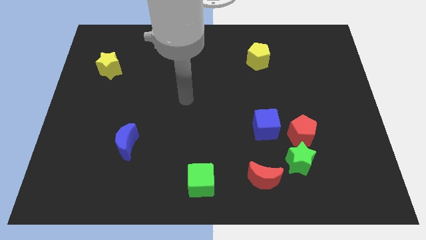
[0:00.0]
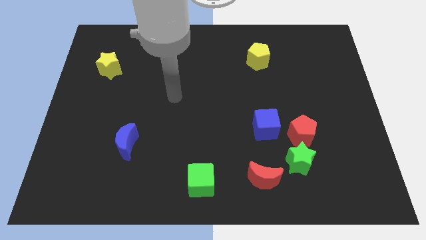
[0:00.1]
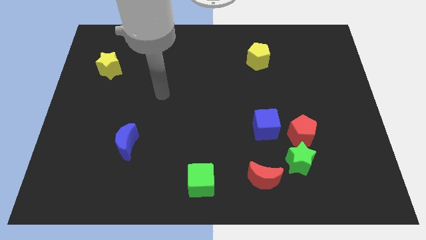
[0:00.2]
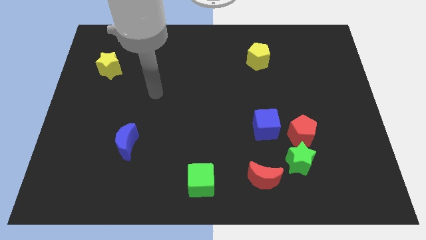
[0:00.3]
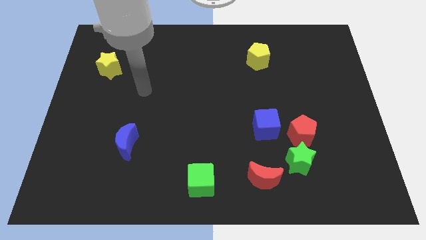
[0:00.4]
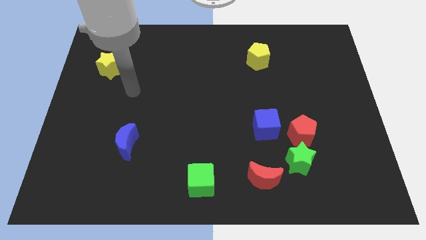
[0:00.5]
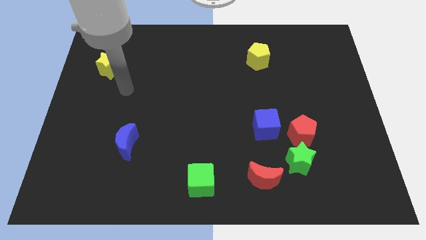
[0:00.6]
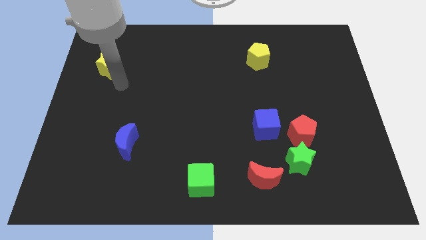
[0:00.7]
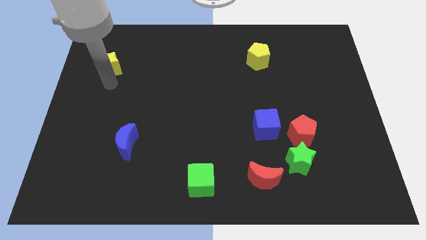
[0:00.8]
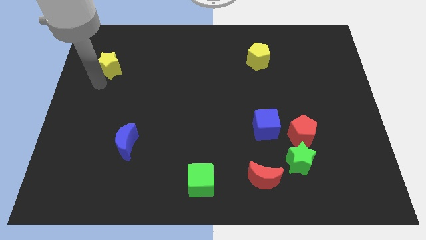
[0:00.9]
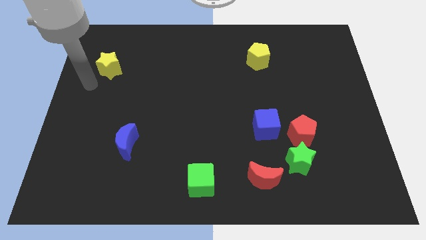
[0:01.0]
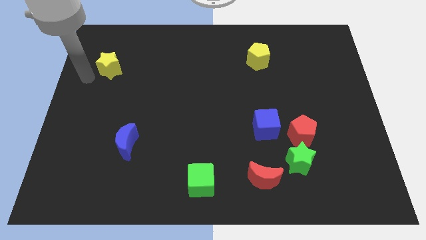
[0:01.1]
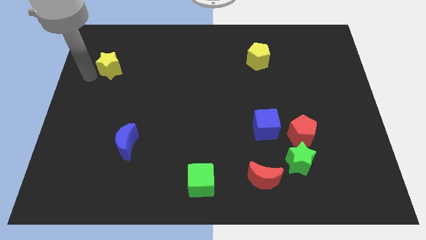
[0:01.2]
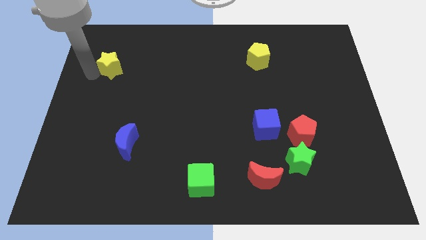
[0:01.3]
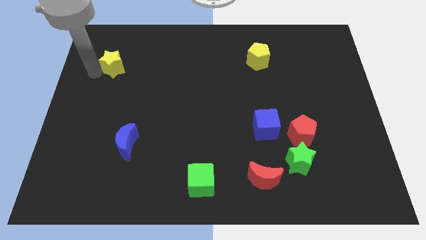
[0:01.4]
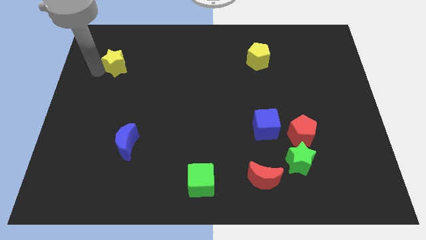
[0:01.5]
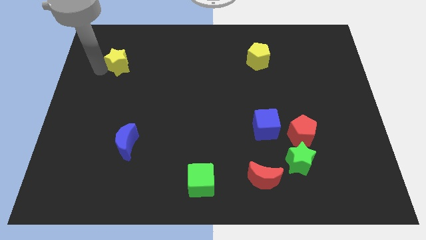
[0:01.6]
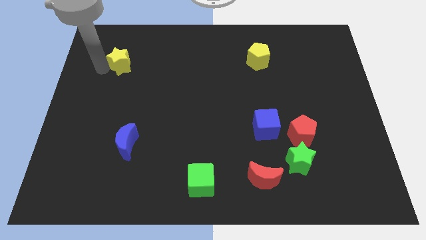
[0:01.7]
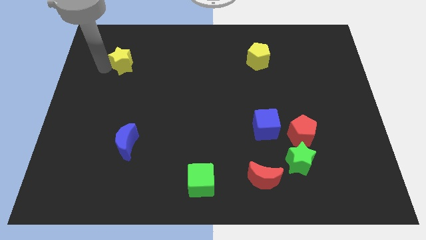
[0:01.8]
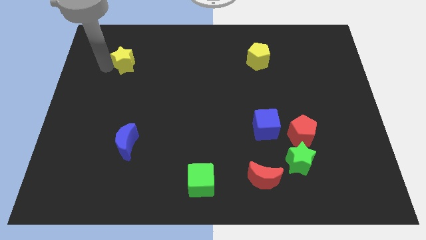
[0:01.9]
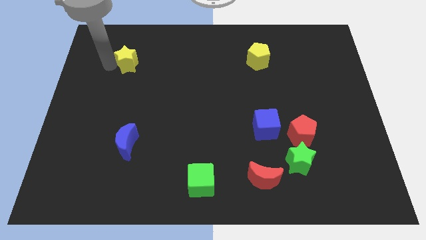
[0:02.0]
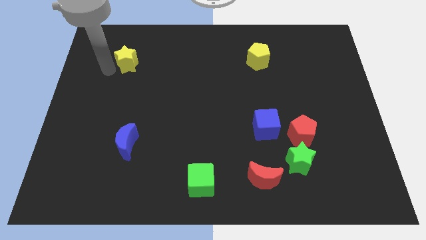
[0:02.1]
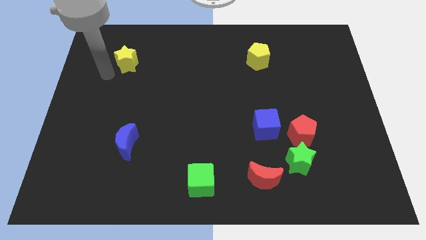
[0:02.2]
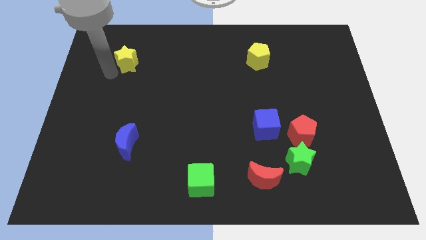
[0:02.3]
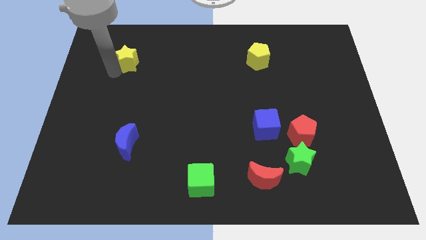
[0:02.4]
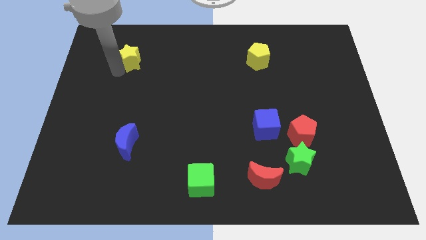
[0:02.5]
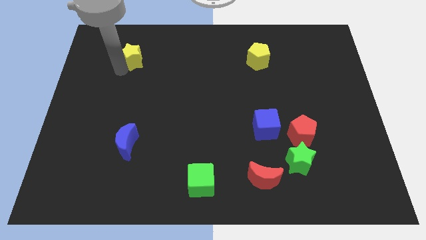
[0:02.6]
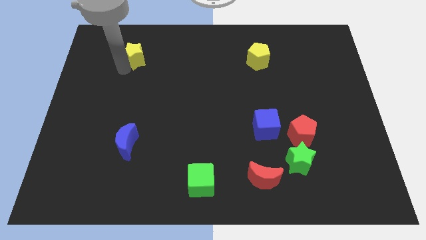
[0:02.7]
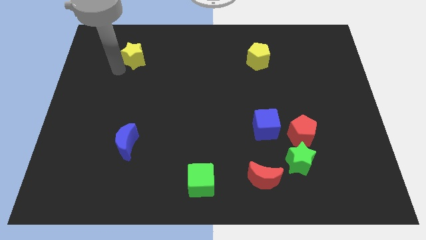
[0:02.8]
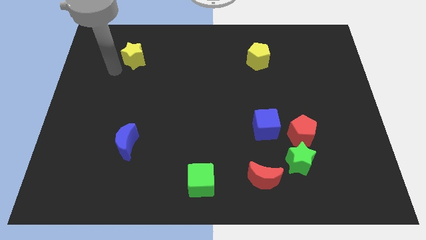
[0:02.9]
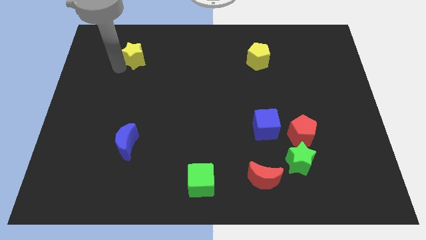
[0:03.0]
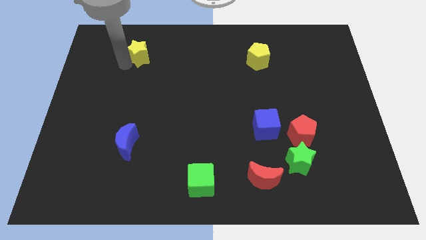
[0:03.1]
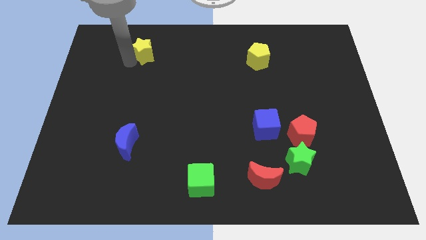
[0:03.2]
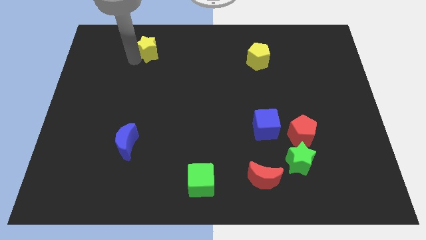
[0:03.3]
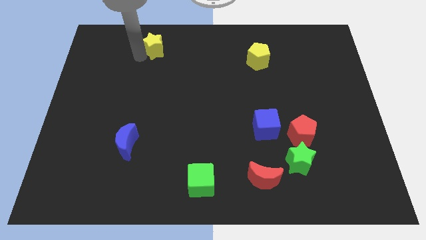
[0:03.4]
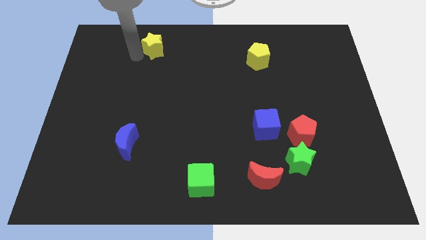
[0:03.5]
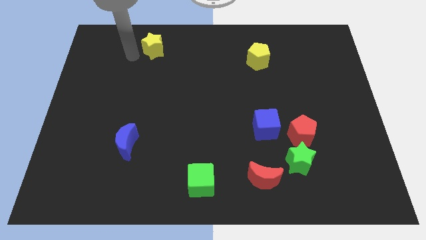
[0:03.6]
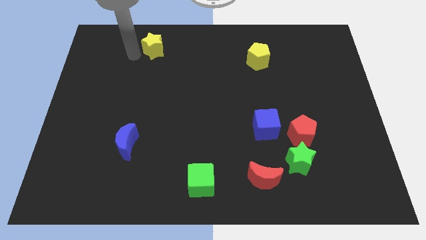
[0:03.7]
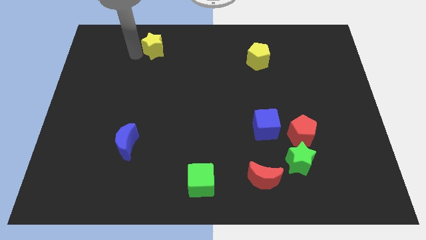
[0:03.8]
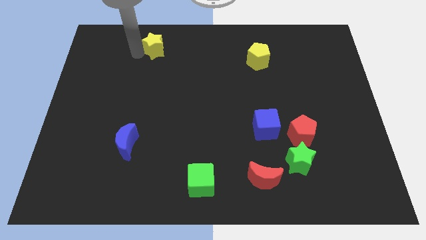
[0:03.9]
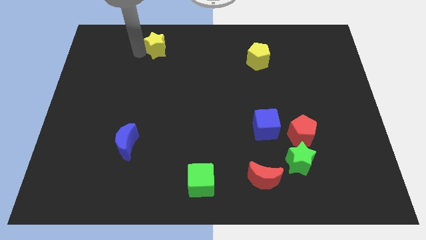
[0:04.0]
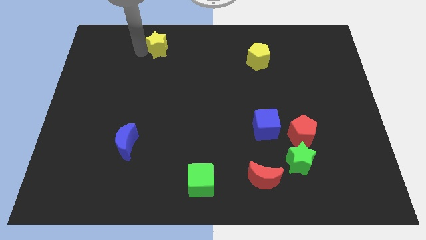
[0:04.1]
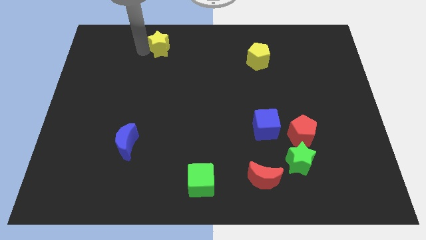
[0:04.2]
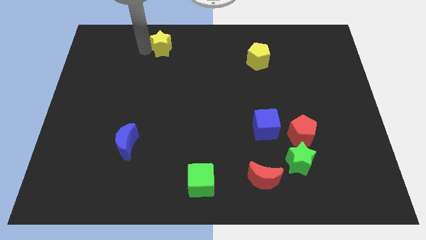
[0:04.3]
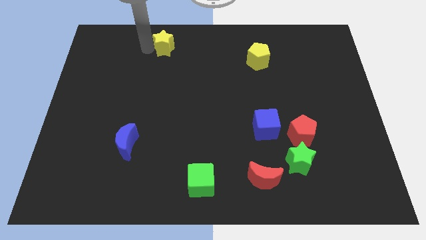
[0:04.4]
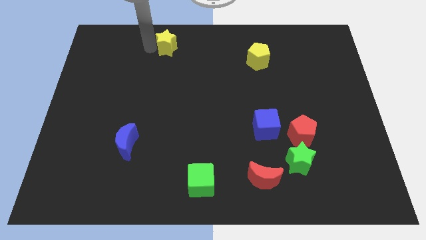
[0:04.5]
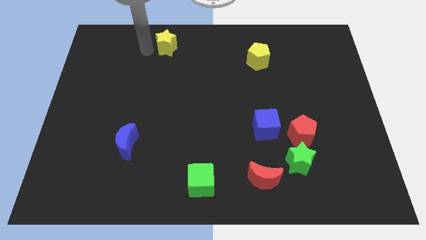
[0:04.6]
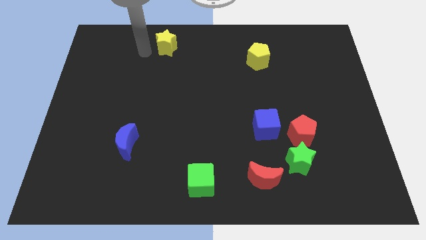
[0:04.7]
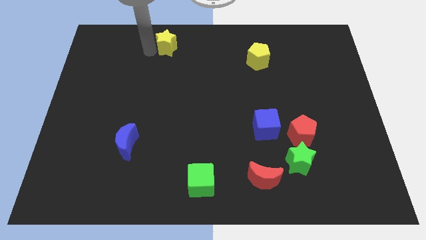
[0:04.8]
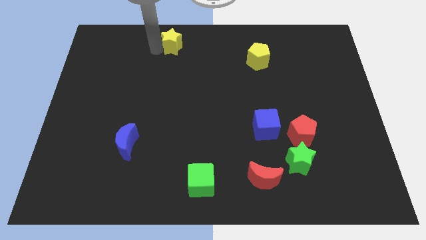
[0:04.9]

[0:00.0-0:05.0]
put the yellow star to the top side

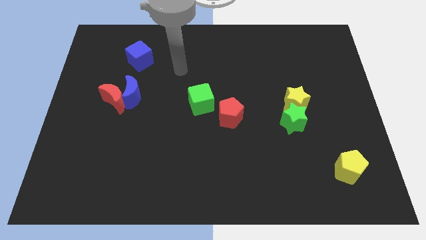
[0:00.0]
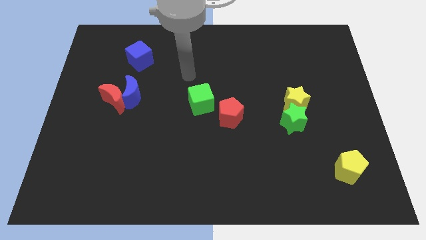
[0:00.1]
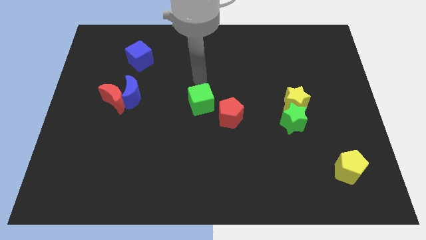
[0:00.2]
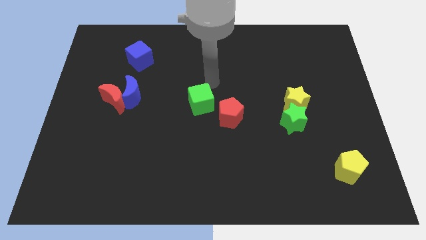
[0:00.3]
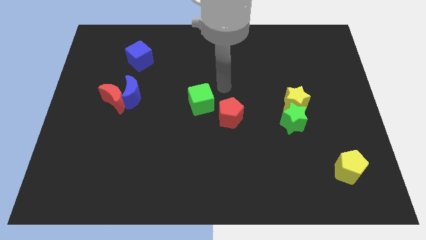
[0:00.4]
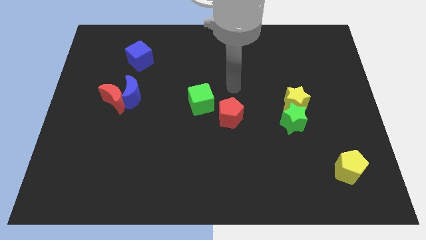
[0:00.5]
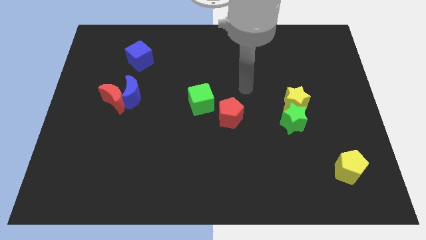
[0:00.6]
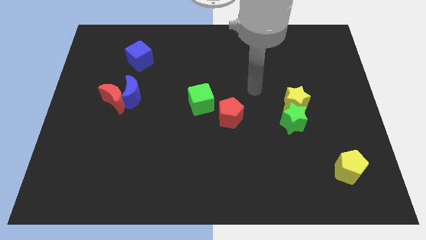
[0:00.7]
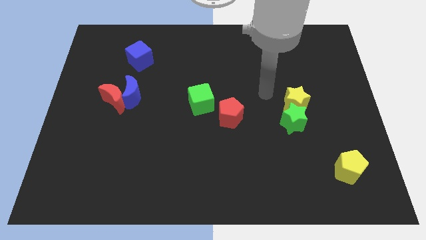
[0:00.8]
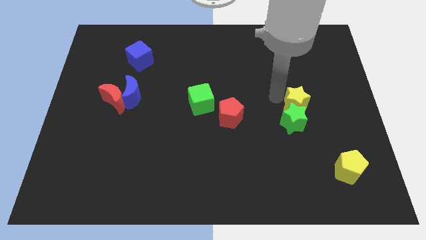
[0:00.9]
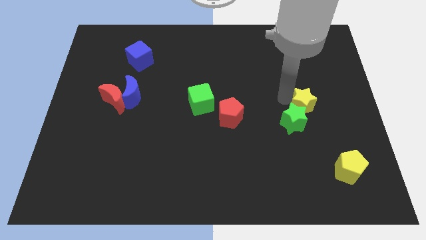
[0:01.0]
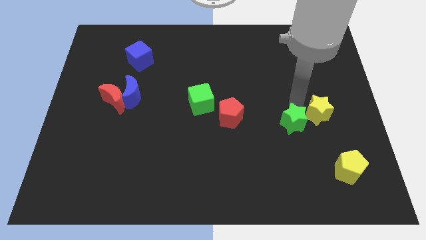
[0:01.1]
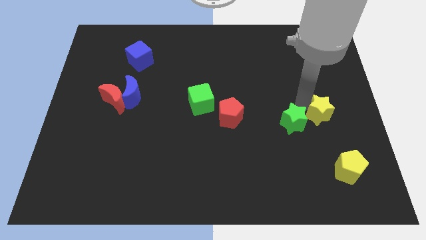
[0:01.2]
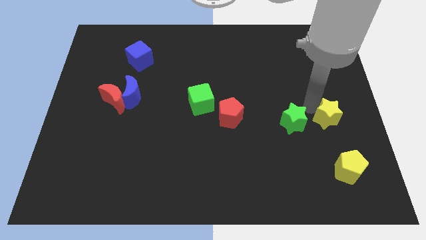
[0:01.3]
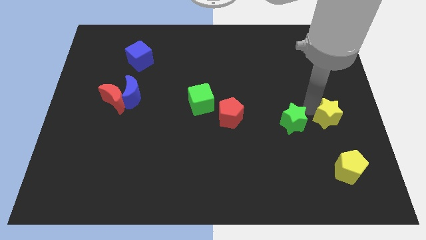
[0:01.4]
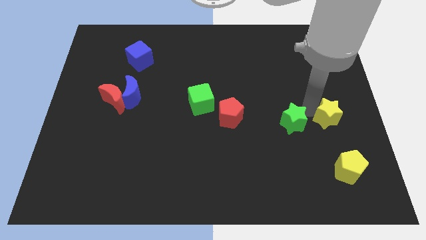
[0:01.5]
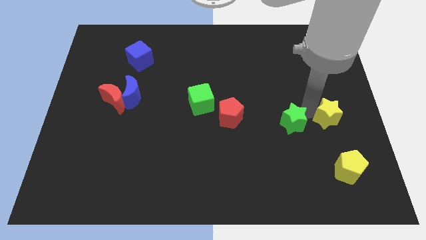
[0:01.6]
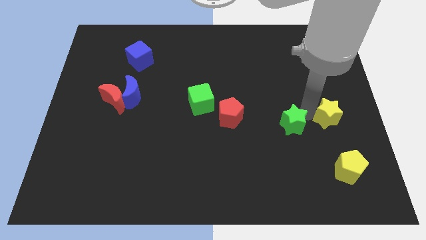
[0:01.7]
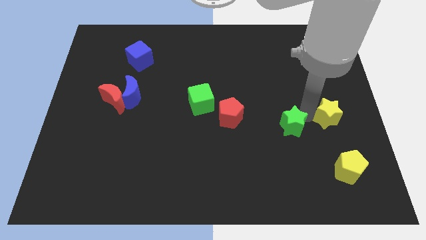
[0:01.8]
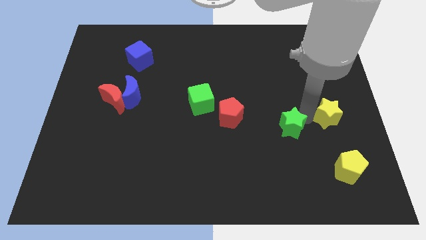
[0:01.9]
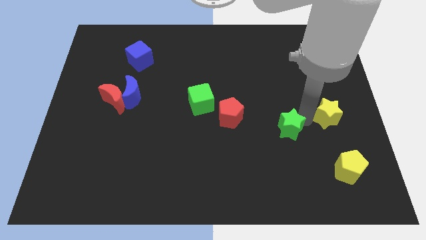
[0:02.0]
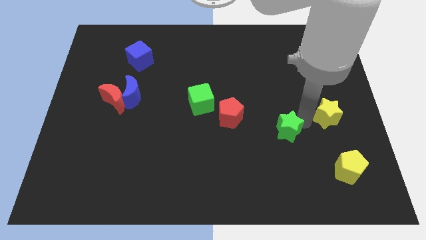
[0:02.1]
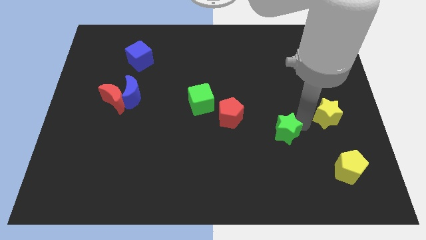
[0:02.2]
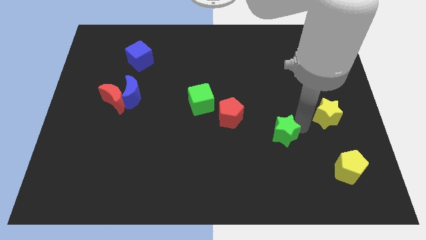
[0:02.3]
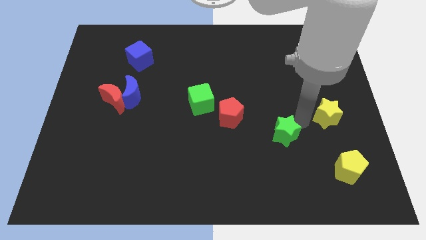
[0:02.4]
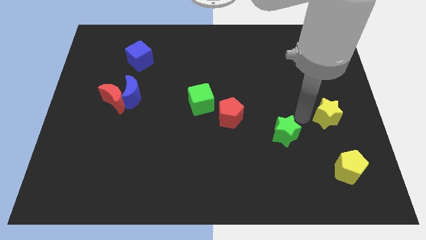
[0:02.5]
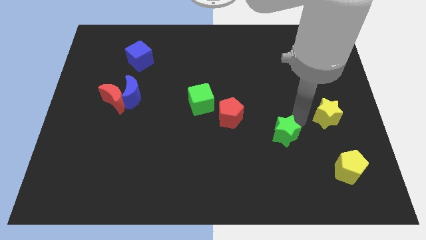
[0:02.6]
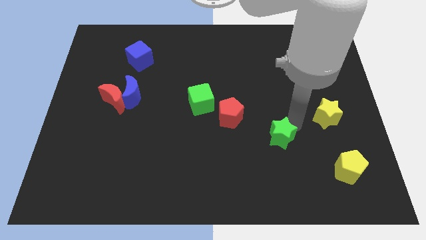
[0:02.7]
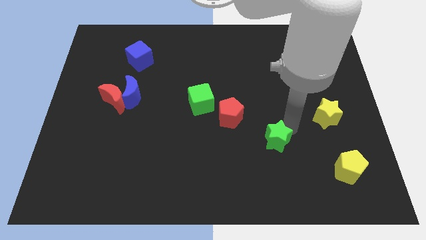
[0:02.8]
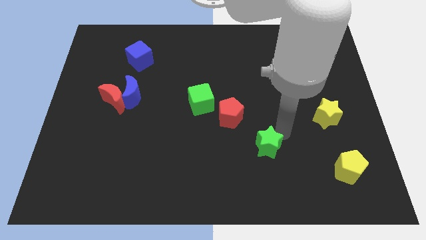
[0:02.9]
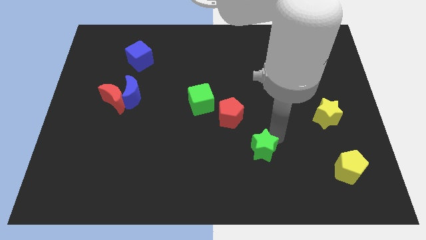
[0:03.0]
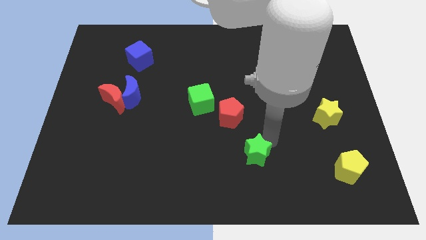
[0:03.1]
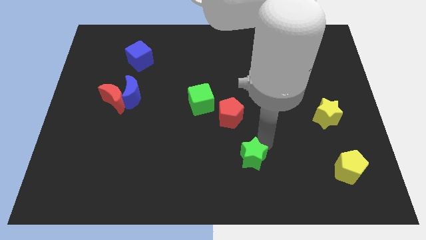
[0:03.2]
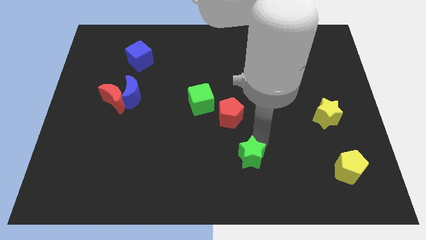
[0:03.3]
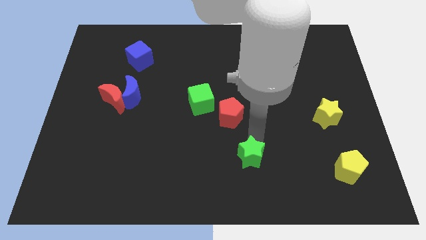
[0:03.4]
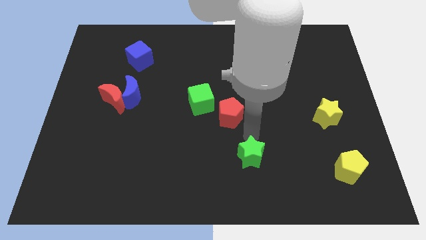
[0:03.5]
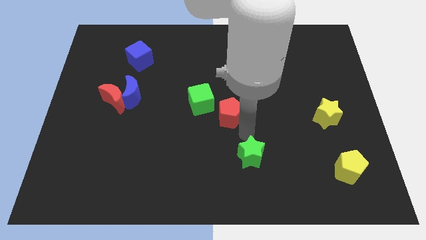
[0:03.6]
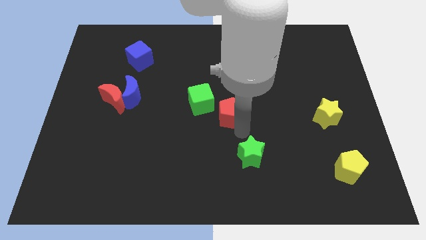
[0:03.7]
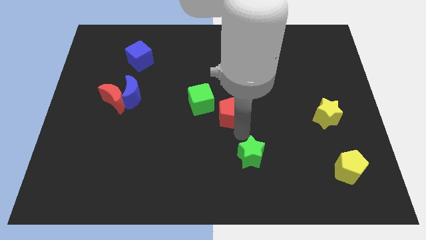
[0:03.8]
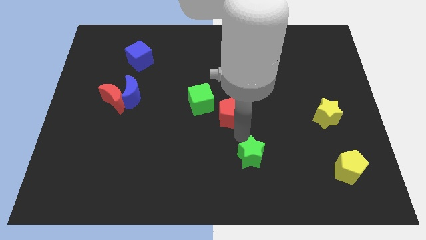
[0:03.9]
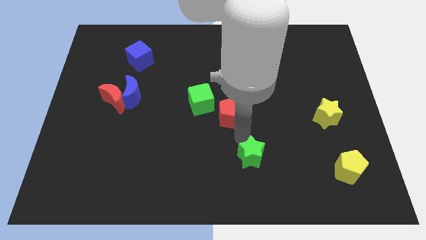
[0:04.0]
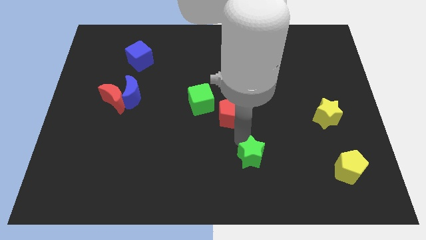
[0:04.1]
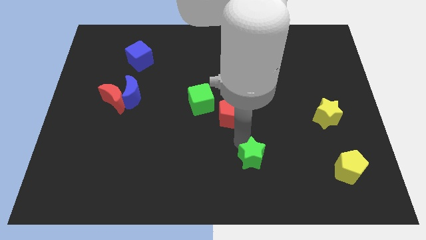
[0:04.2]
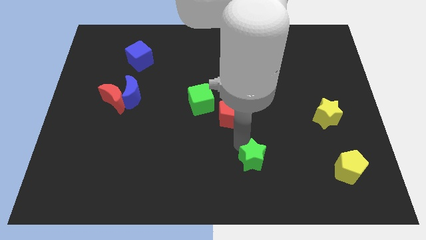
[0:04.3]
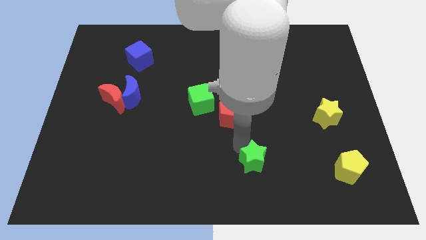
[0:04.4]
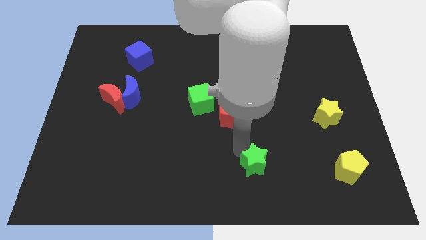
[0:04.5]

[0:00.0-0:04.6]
put the green star to the bottom side
